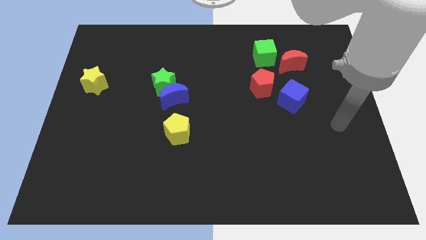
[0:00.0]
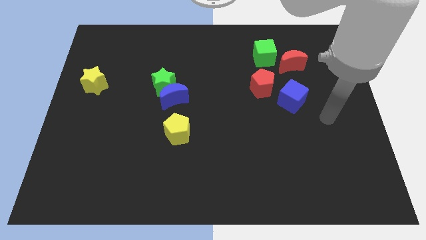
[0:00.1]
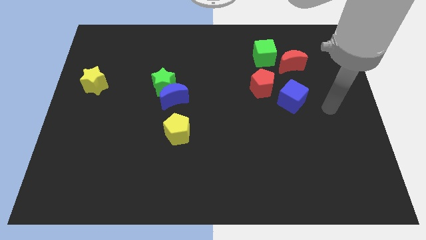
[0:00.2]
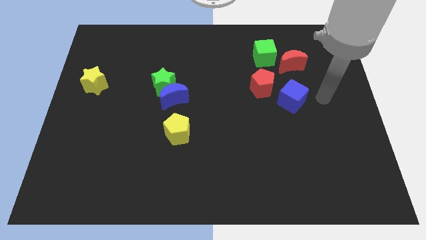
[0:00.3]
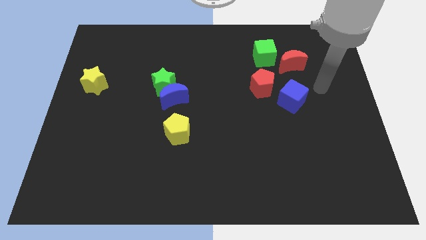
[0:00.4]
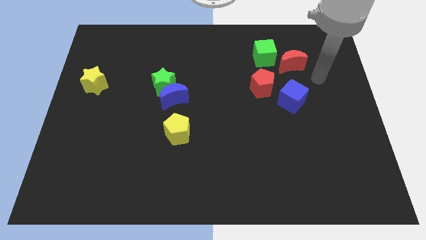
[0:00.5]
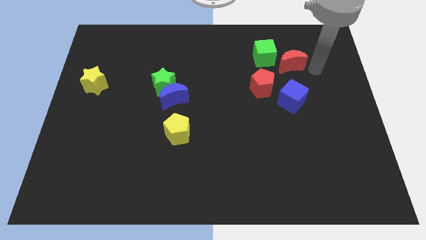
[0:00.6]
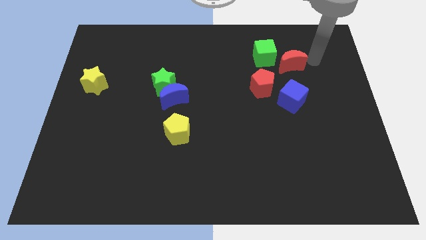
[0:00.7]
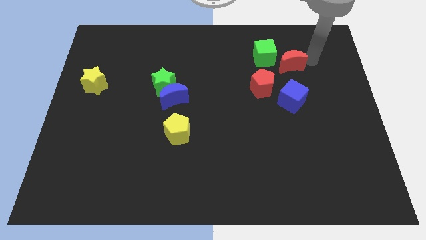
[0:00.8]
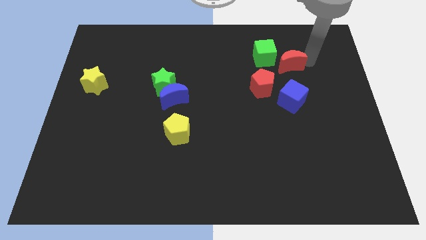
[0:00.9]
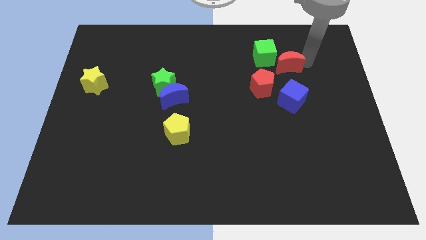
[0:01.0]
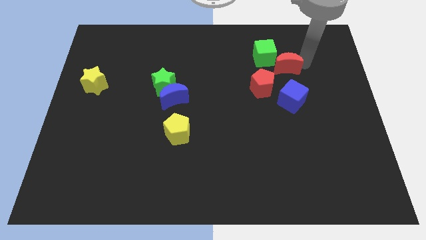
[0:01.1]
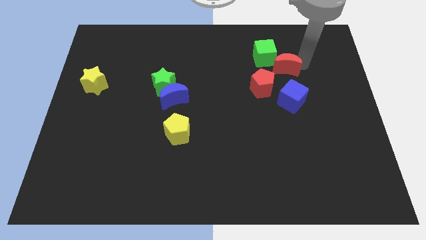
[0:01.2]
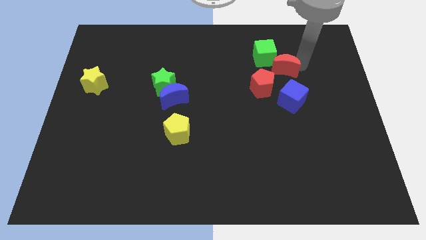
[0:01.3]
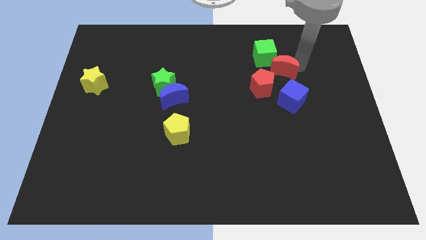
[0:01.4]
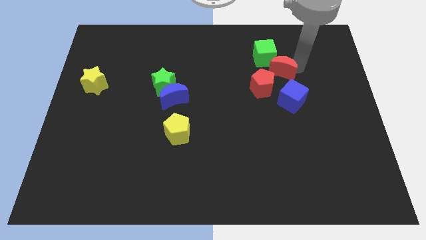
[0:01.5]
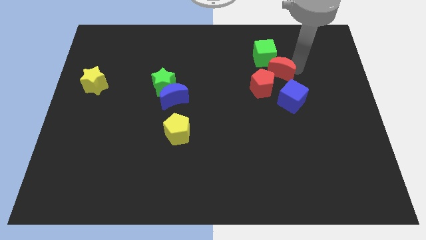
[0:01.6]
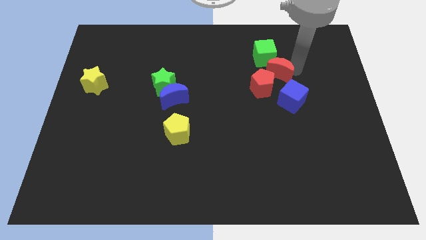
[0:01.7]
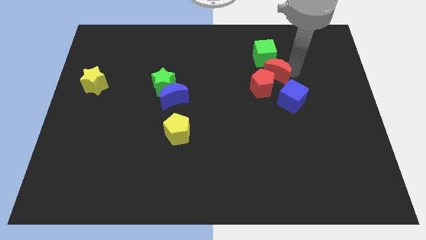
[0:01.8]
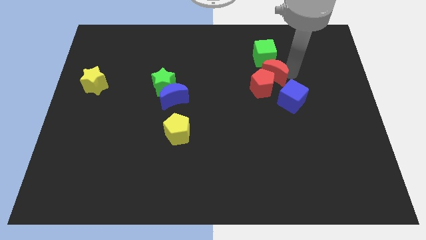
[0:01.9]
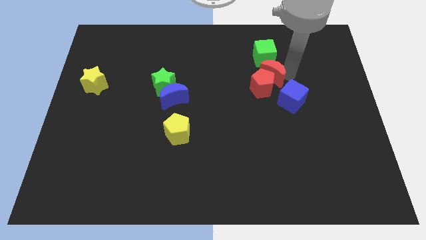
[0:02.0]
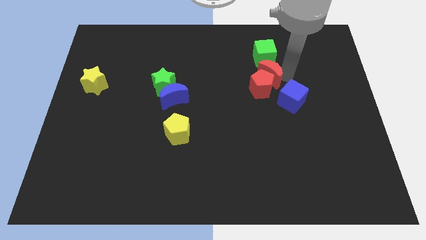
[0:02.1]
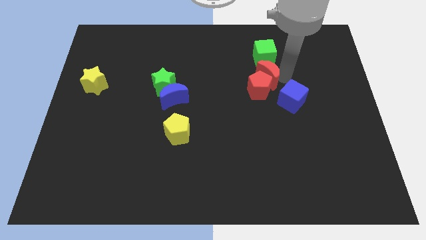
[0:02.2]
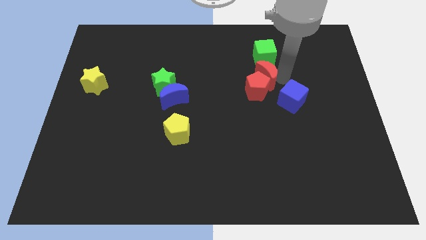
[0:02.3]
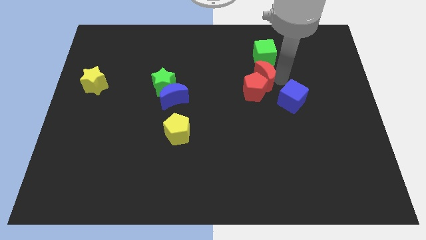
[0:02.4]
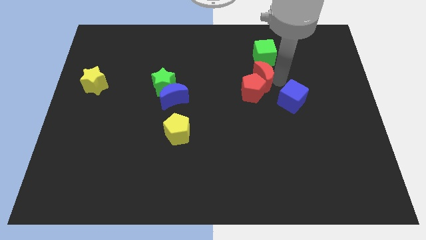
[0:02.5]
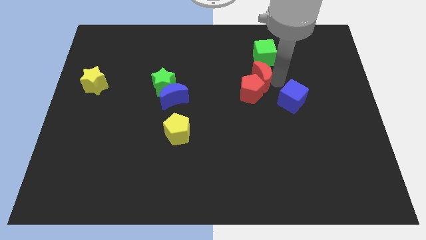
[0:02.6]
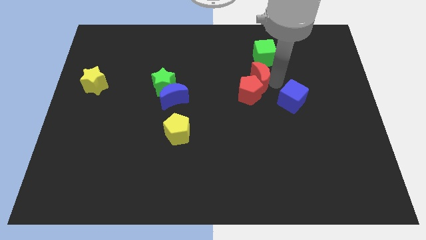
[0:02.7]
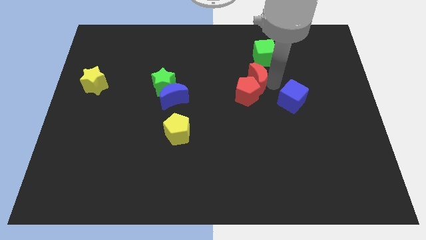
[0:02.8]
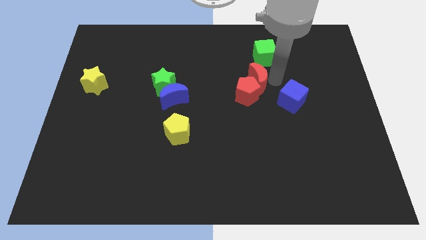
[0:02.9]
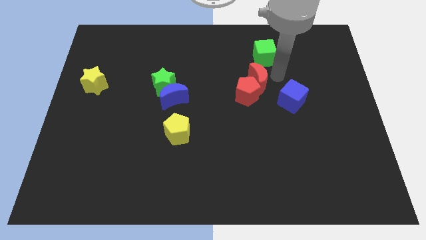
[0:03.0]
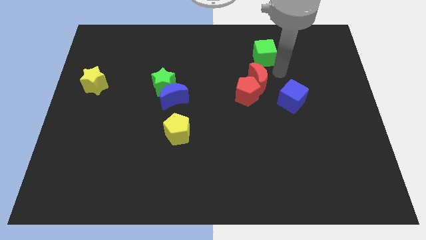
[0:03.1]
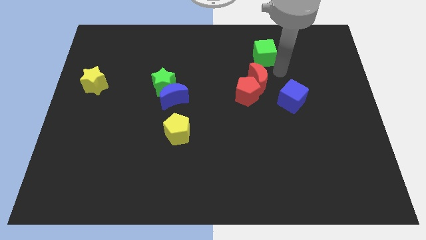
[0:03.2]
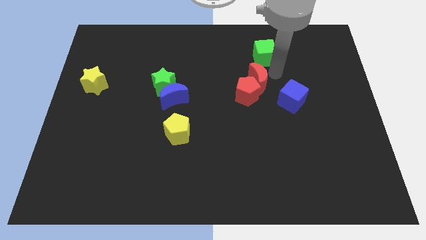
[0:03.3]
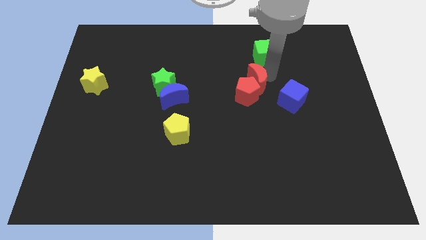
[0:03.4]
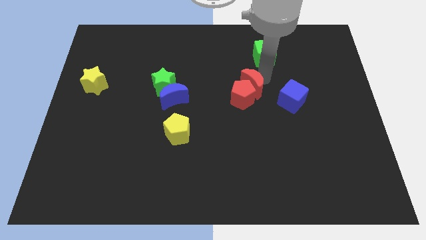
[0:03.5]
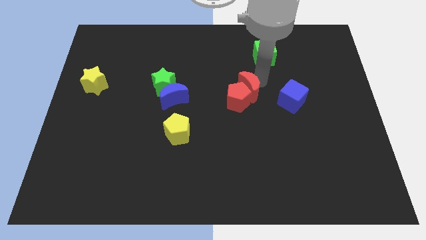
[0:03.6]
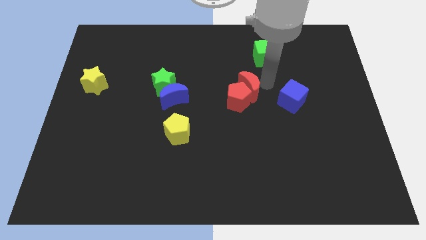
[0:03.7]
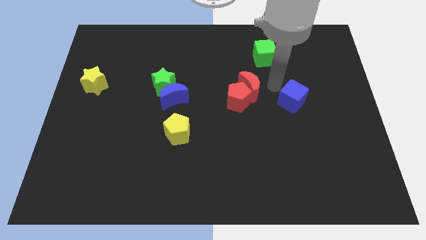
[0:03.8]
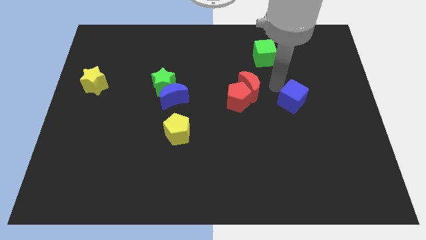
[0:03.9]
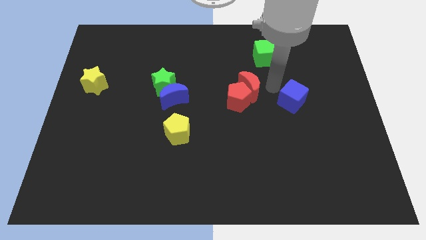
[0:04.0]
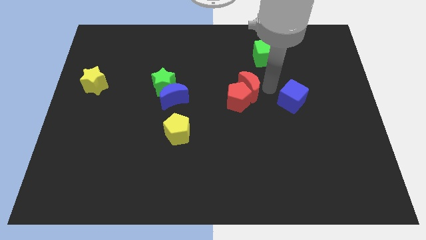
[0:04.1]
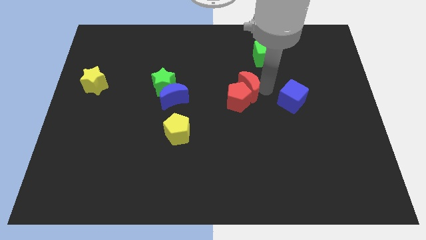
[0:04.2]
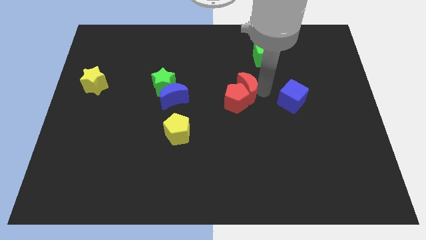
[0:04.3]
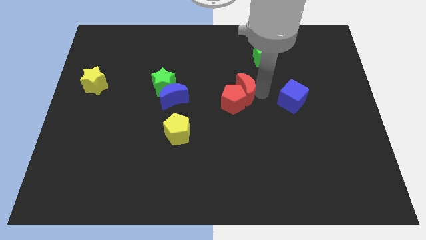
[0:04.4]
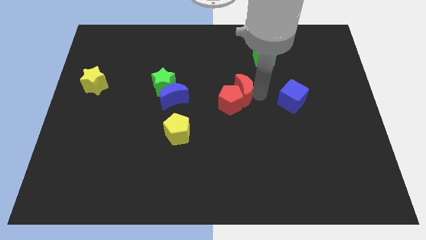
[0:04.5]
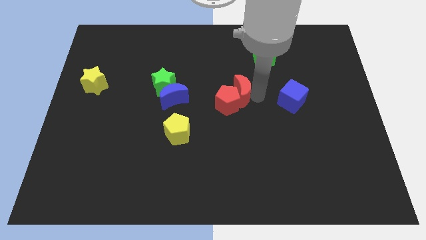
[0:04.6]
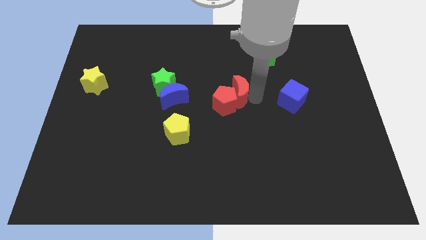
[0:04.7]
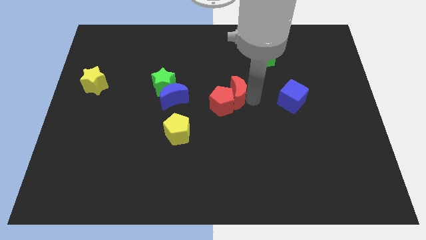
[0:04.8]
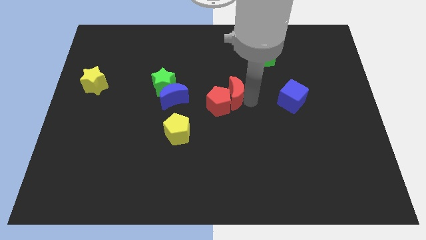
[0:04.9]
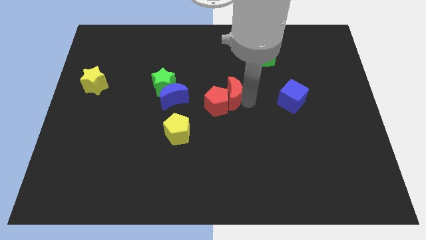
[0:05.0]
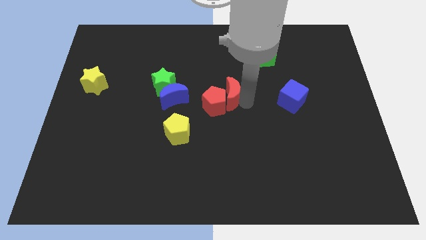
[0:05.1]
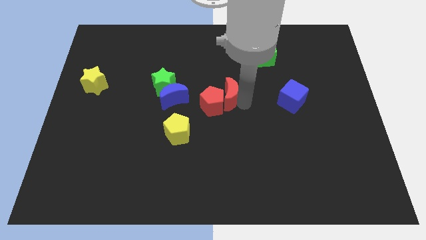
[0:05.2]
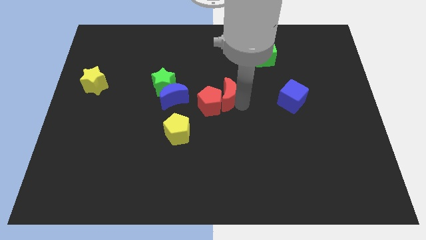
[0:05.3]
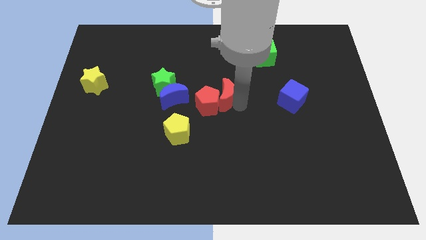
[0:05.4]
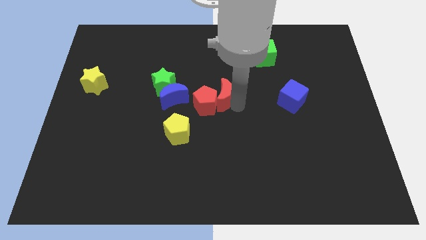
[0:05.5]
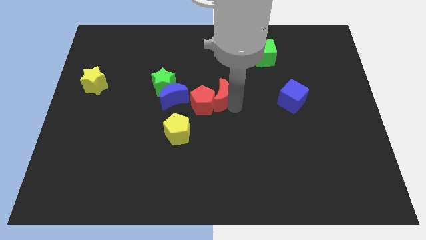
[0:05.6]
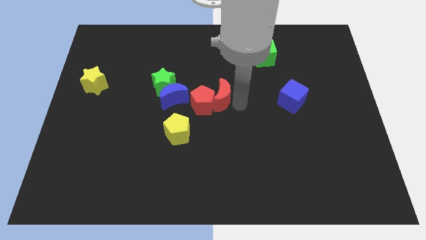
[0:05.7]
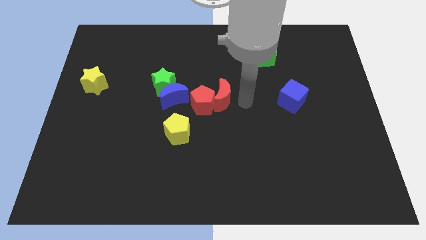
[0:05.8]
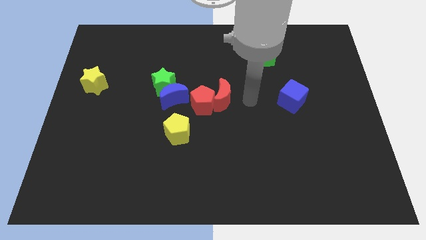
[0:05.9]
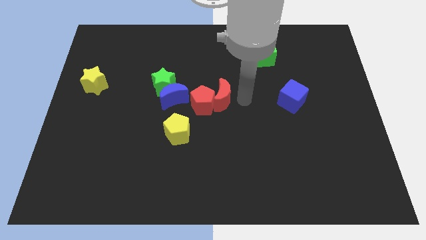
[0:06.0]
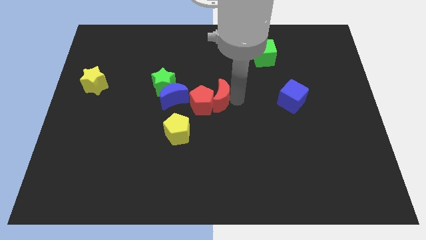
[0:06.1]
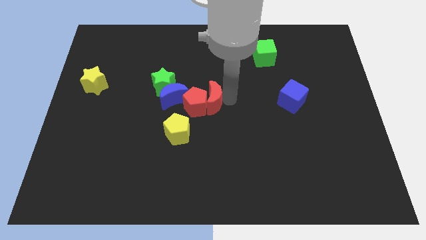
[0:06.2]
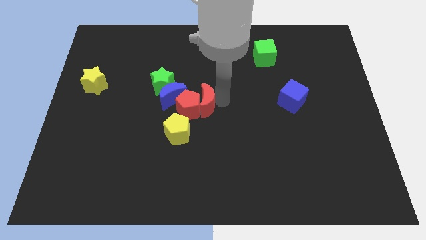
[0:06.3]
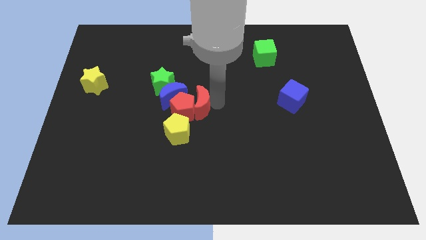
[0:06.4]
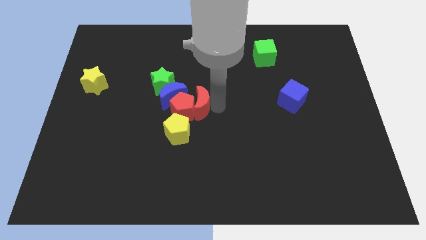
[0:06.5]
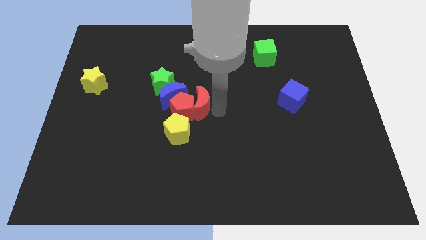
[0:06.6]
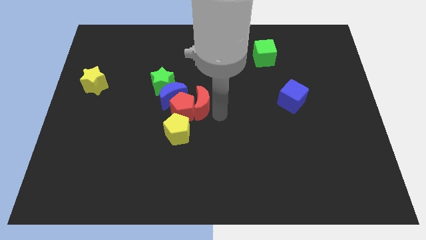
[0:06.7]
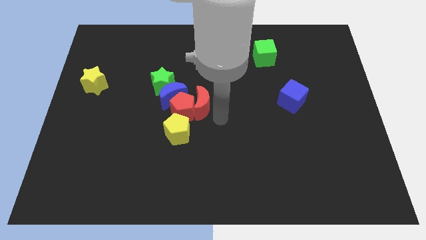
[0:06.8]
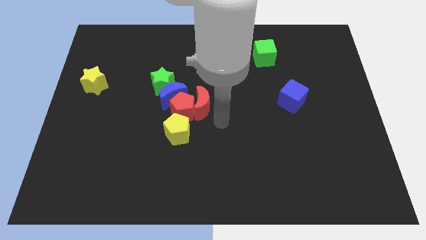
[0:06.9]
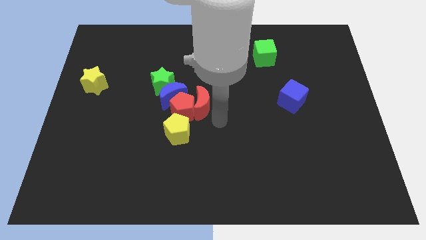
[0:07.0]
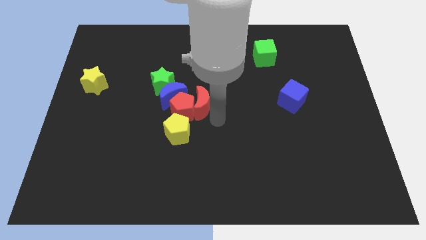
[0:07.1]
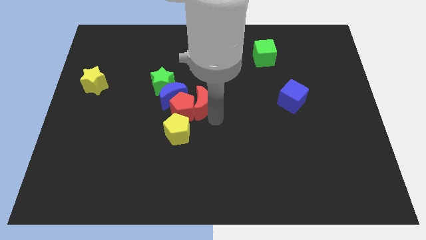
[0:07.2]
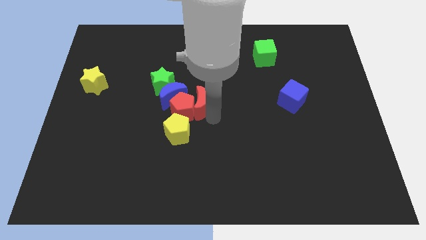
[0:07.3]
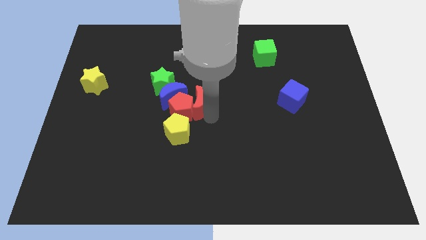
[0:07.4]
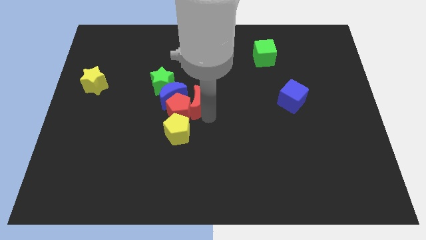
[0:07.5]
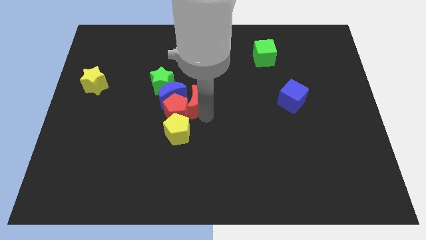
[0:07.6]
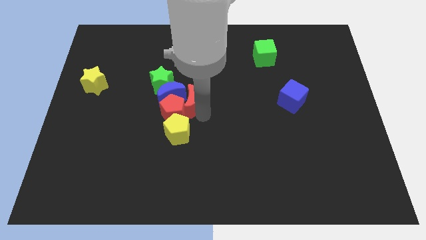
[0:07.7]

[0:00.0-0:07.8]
move the red moon towards the blue moon

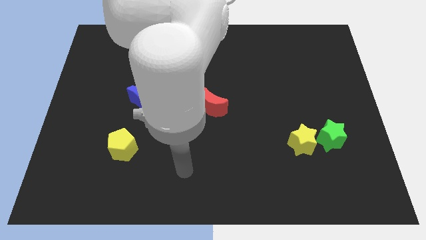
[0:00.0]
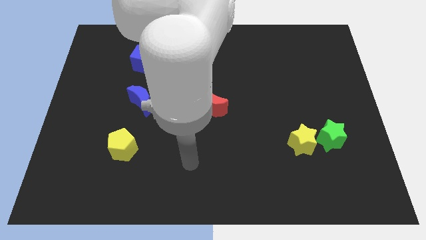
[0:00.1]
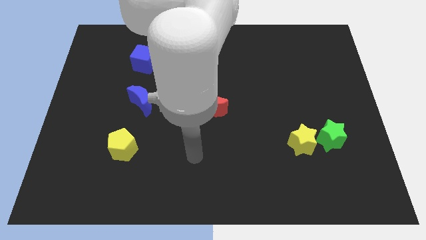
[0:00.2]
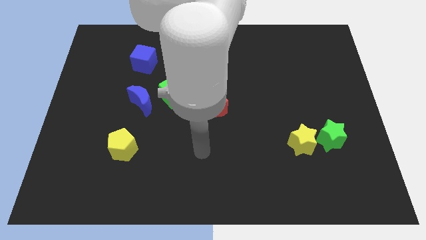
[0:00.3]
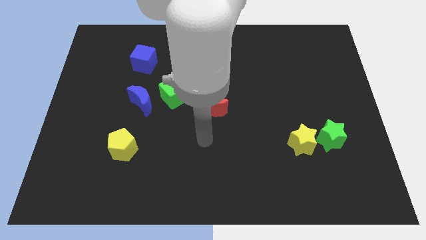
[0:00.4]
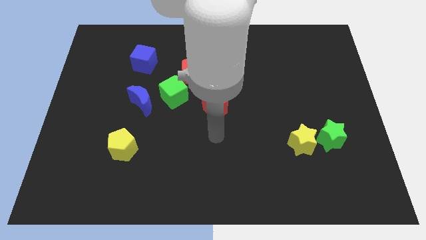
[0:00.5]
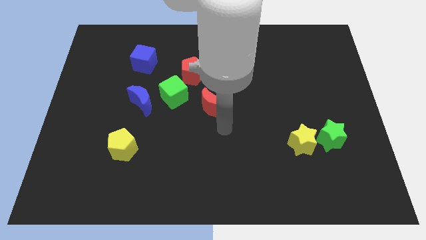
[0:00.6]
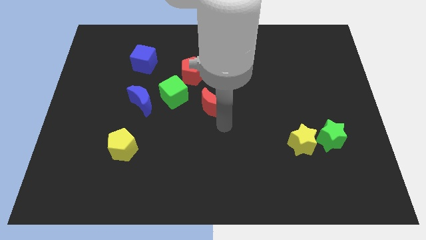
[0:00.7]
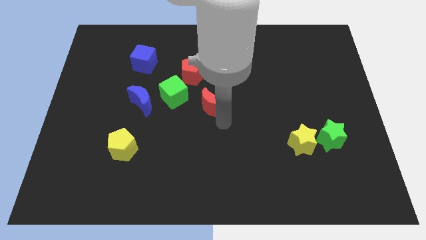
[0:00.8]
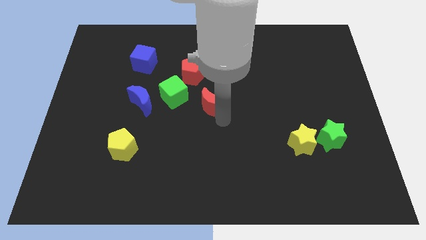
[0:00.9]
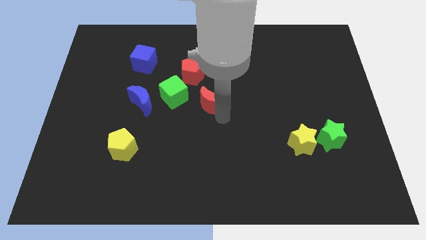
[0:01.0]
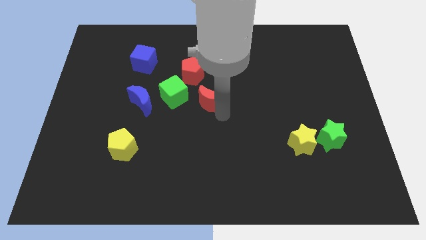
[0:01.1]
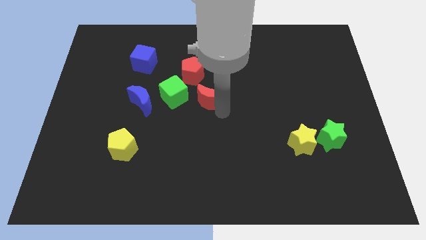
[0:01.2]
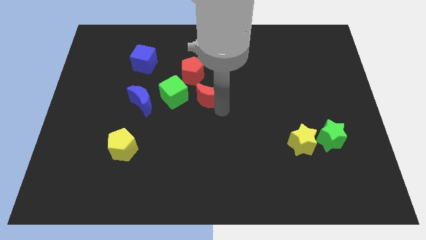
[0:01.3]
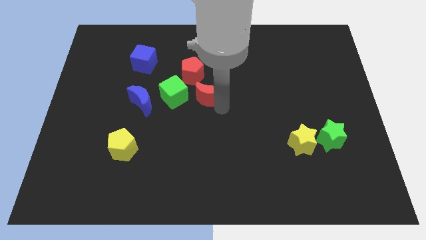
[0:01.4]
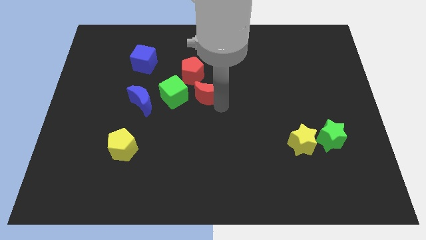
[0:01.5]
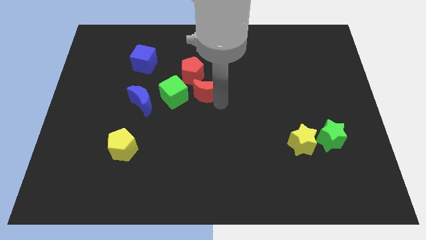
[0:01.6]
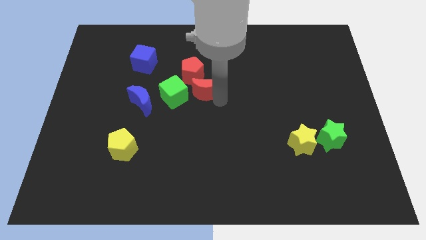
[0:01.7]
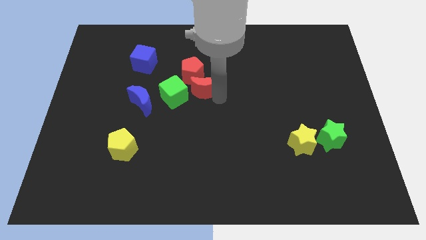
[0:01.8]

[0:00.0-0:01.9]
put the red moon close to the red pentagon
